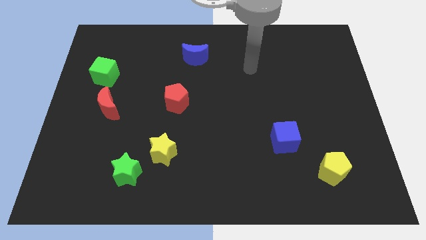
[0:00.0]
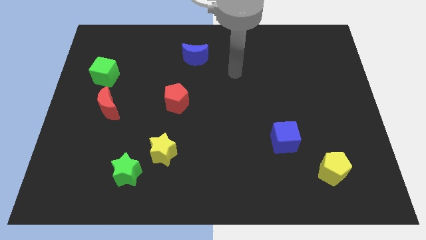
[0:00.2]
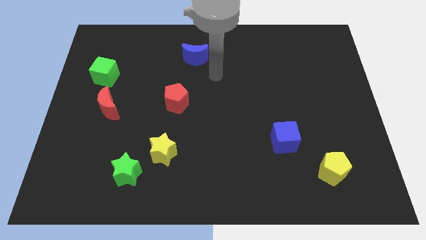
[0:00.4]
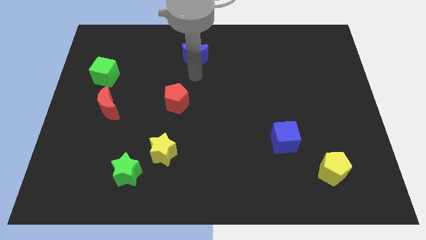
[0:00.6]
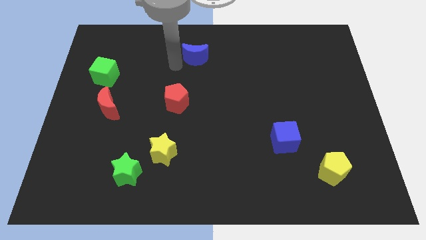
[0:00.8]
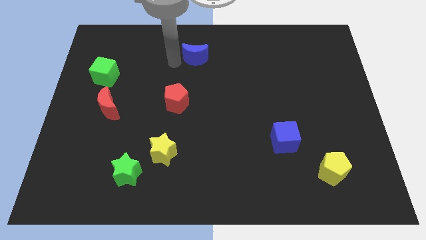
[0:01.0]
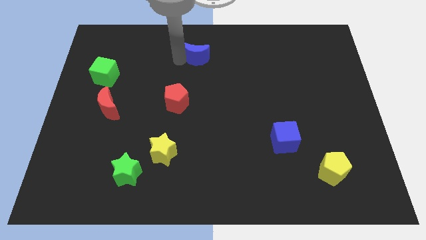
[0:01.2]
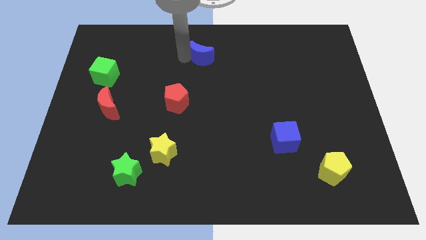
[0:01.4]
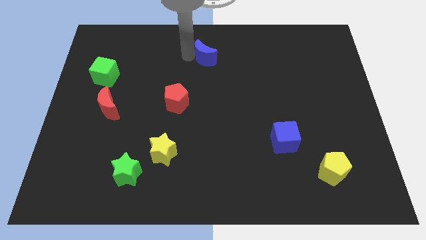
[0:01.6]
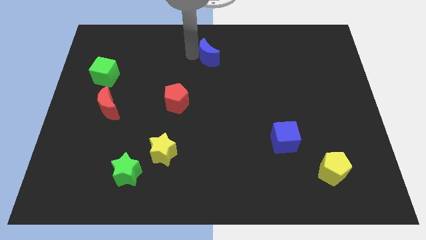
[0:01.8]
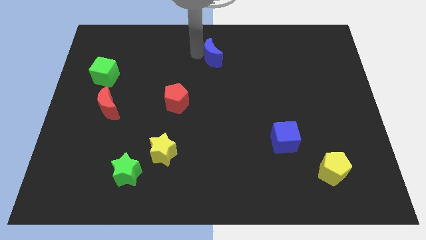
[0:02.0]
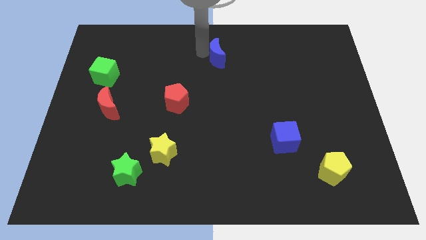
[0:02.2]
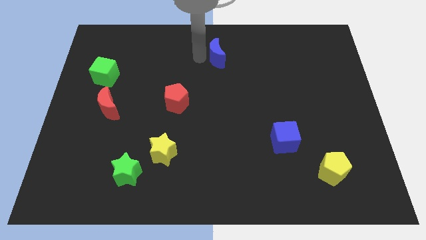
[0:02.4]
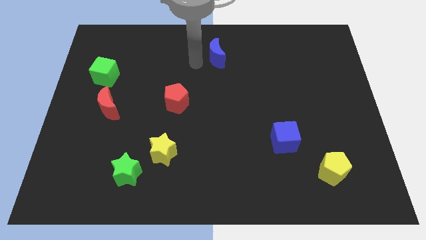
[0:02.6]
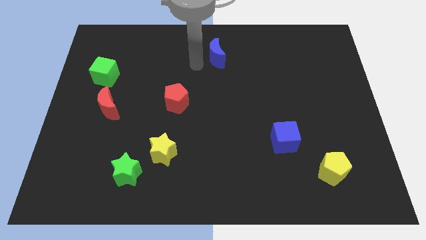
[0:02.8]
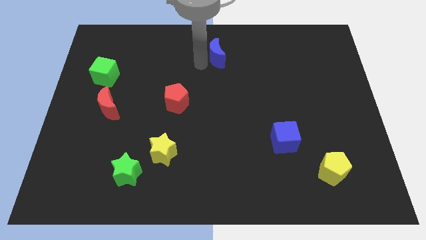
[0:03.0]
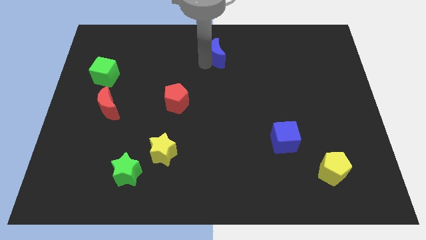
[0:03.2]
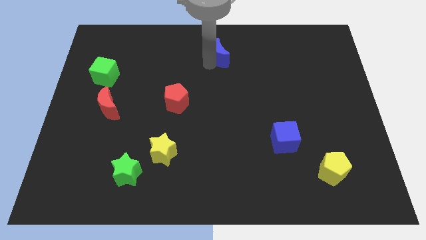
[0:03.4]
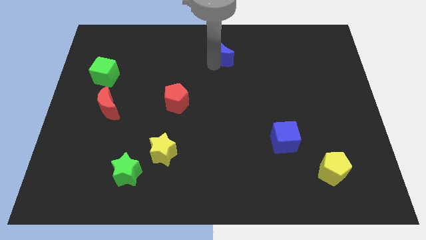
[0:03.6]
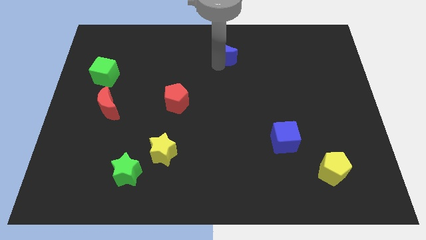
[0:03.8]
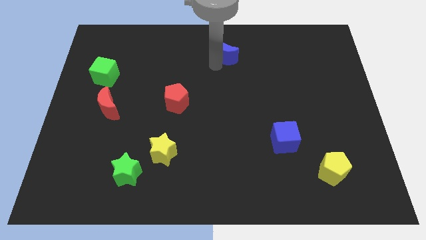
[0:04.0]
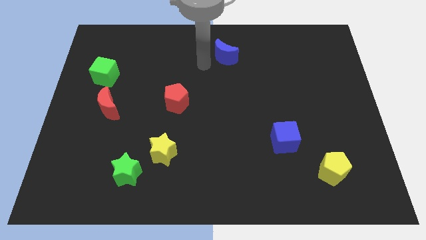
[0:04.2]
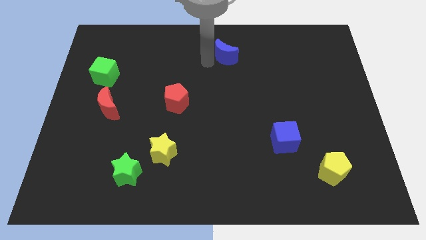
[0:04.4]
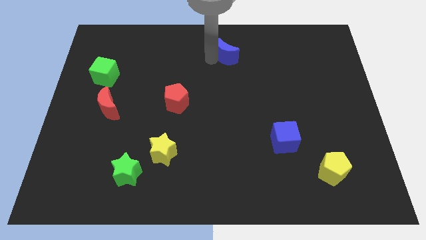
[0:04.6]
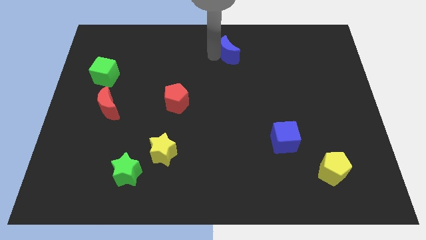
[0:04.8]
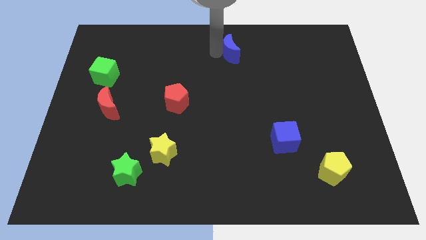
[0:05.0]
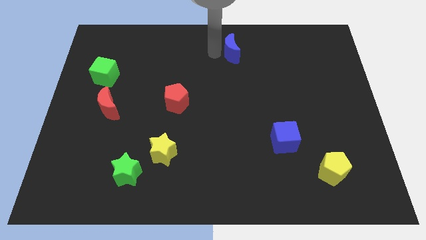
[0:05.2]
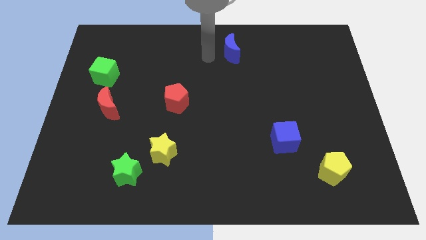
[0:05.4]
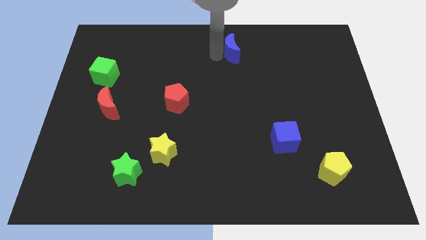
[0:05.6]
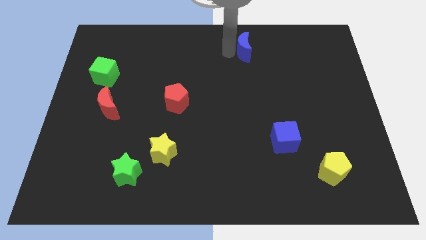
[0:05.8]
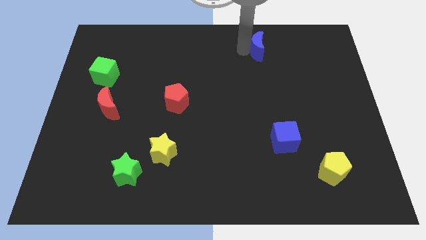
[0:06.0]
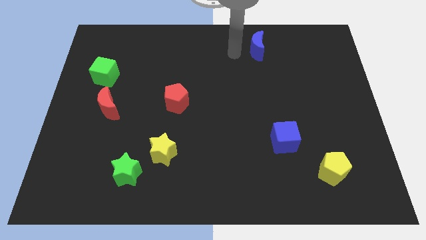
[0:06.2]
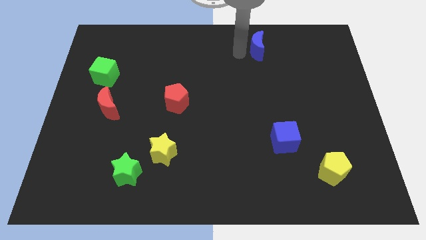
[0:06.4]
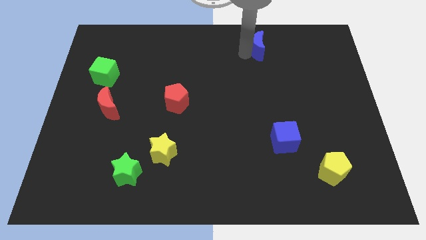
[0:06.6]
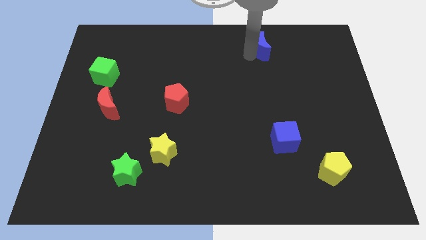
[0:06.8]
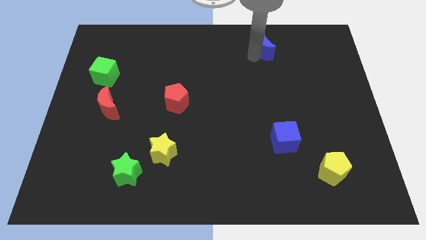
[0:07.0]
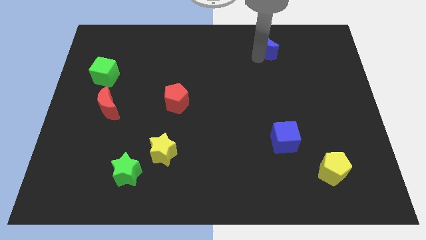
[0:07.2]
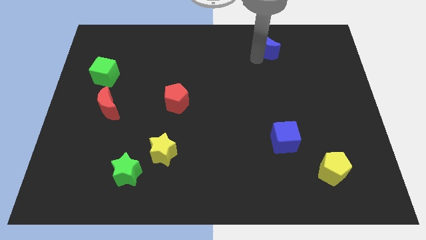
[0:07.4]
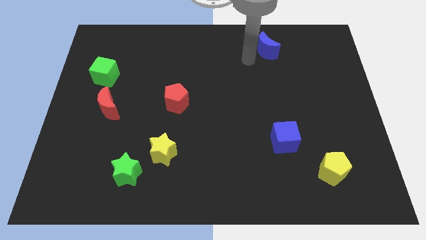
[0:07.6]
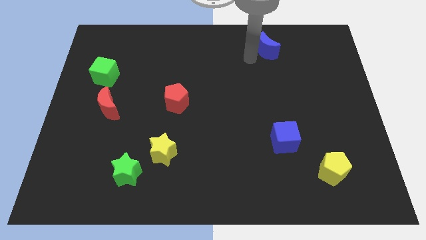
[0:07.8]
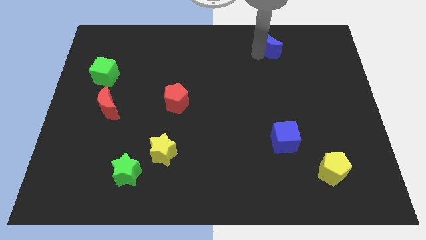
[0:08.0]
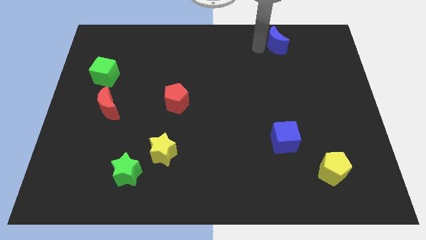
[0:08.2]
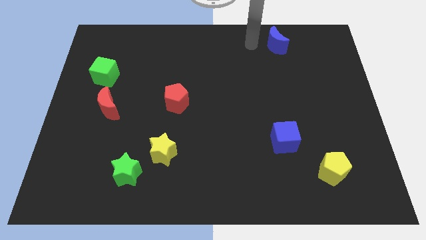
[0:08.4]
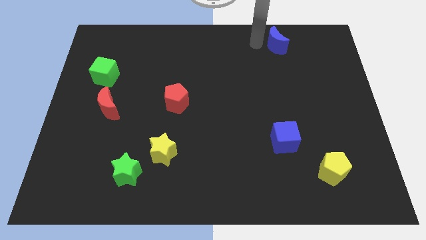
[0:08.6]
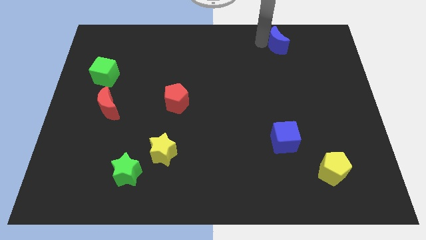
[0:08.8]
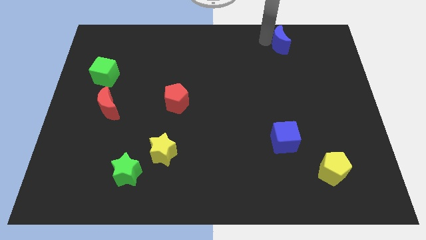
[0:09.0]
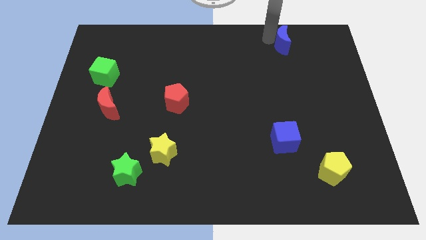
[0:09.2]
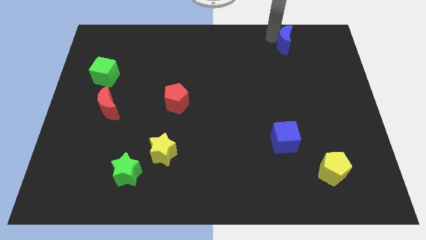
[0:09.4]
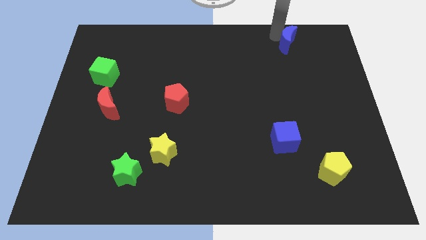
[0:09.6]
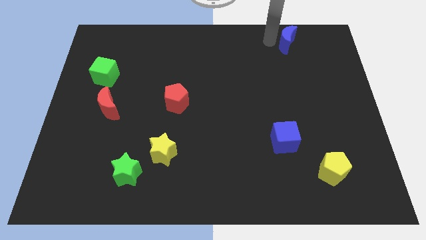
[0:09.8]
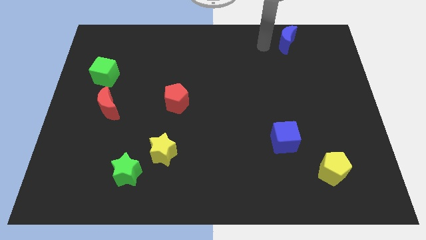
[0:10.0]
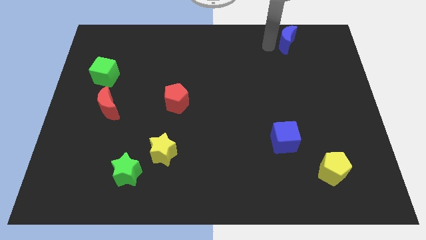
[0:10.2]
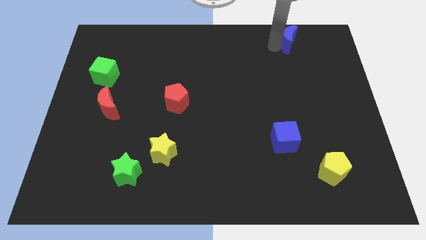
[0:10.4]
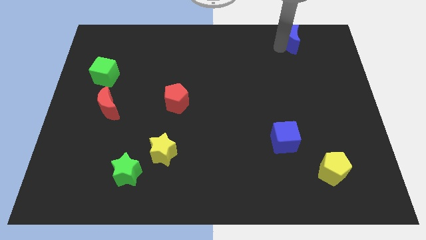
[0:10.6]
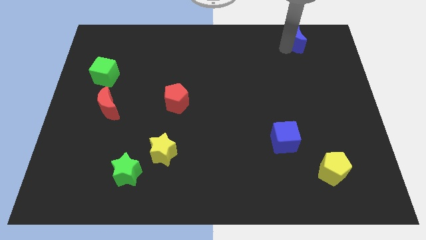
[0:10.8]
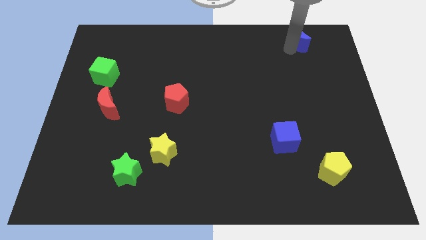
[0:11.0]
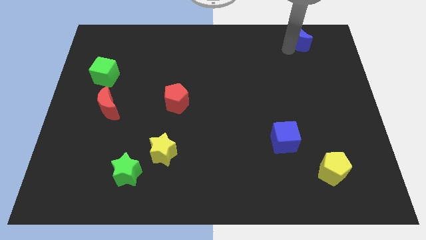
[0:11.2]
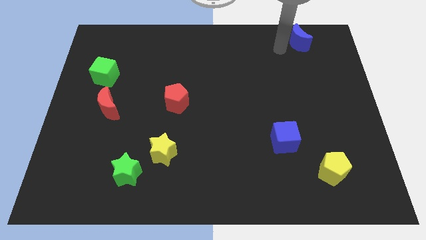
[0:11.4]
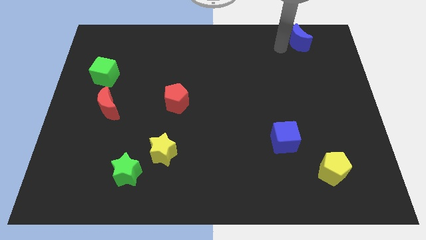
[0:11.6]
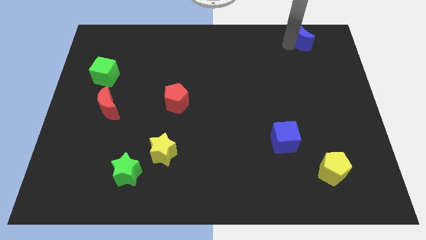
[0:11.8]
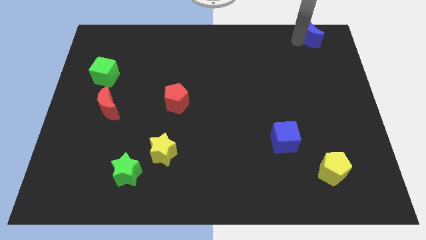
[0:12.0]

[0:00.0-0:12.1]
push the blue moon to the top right corner
